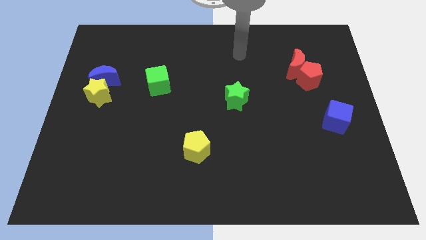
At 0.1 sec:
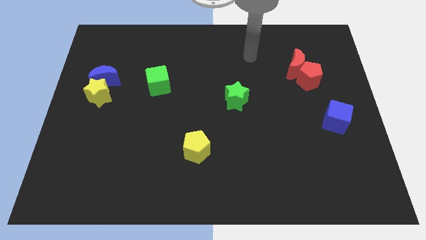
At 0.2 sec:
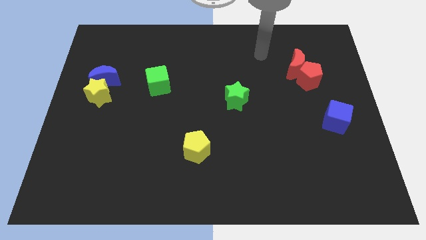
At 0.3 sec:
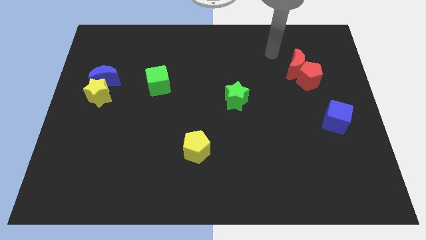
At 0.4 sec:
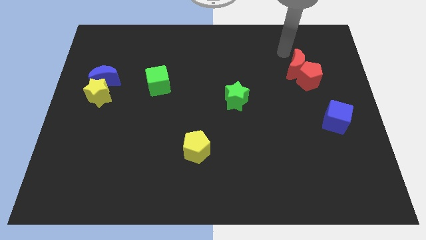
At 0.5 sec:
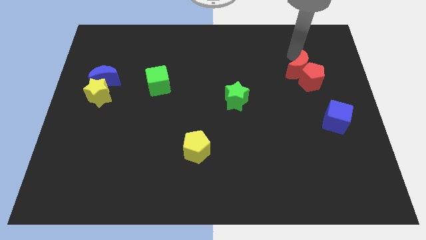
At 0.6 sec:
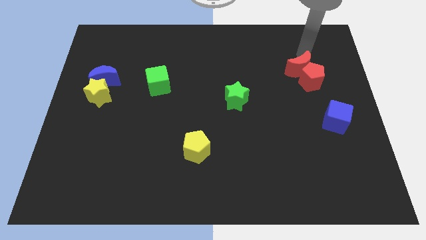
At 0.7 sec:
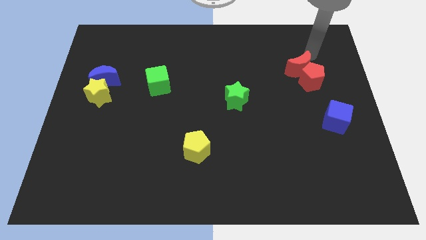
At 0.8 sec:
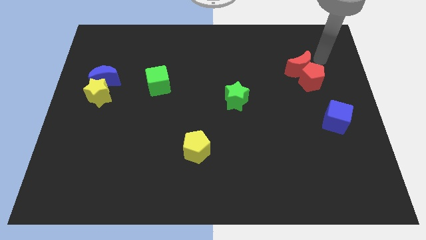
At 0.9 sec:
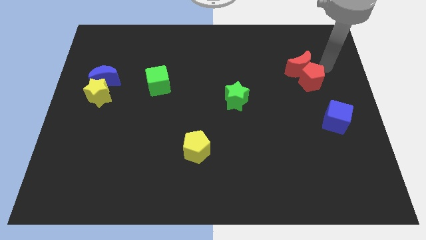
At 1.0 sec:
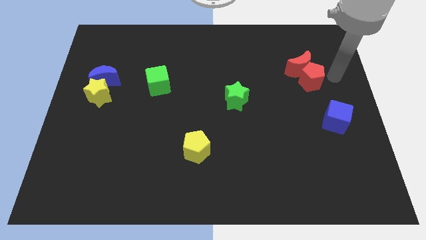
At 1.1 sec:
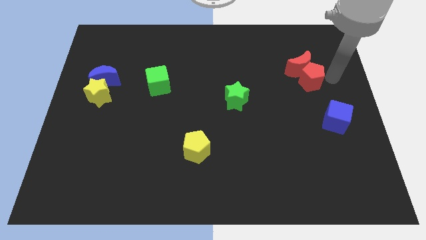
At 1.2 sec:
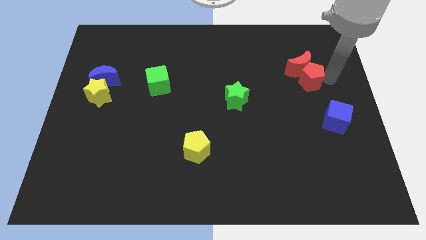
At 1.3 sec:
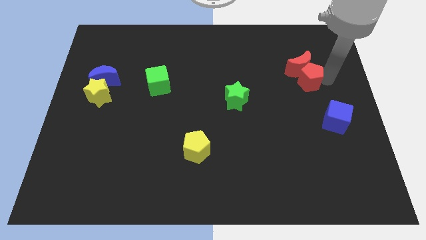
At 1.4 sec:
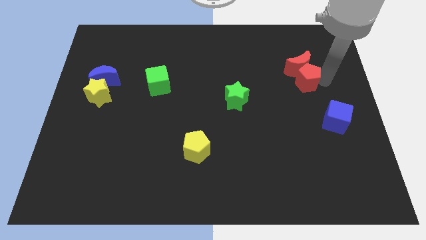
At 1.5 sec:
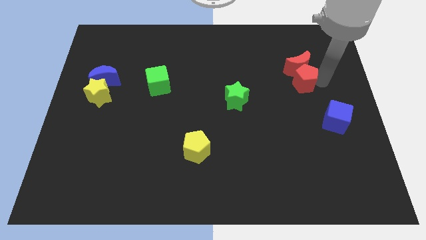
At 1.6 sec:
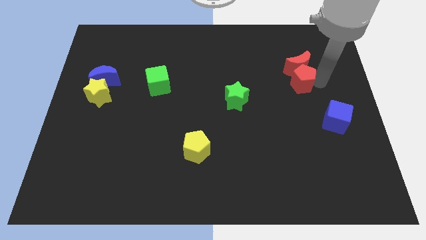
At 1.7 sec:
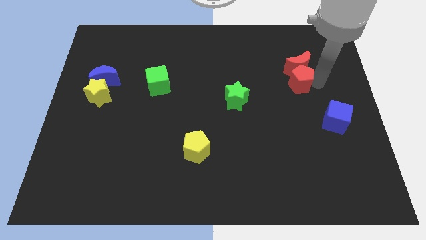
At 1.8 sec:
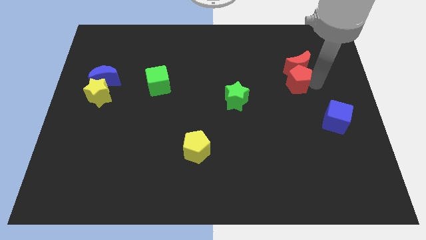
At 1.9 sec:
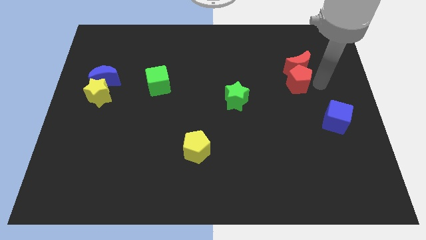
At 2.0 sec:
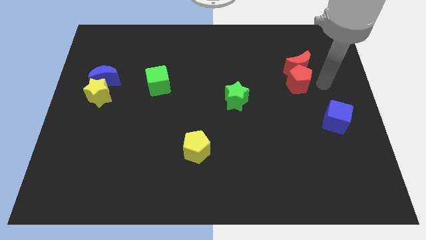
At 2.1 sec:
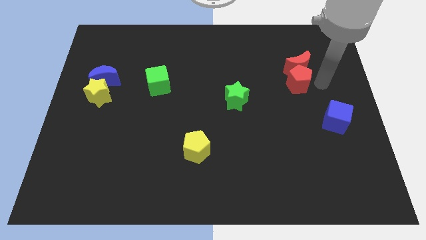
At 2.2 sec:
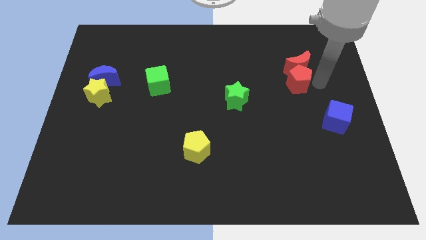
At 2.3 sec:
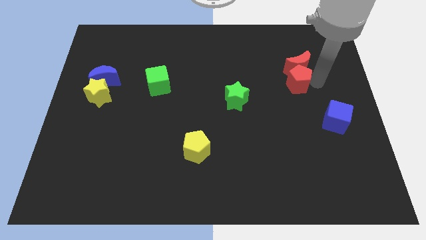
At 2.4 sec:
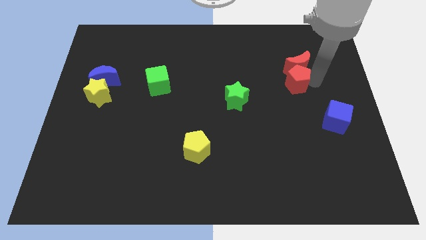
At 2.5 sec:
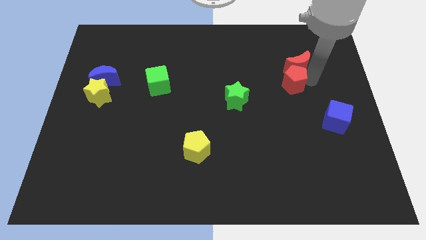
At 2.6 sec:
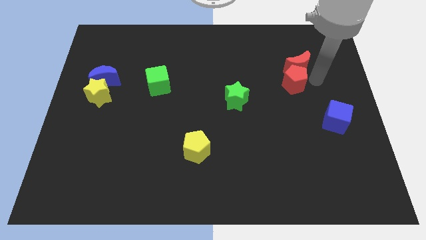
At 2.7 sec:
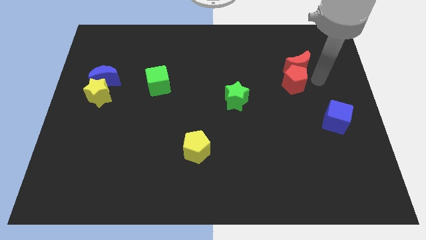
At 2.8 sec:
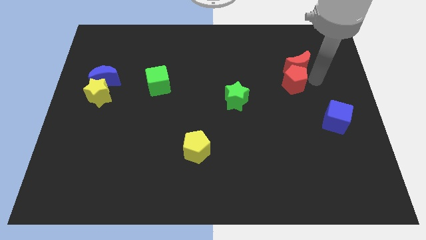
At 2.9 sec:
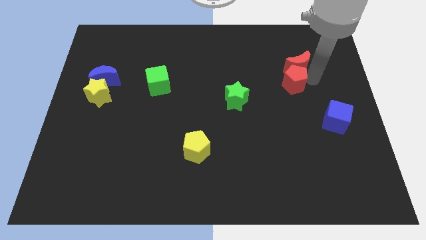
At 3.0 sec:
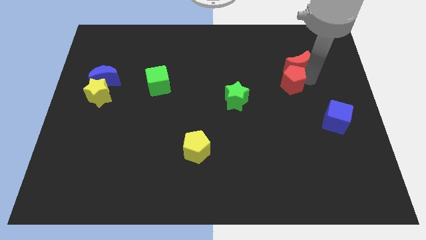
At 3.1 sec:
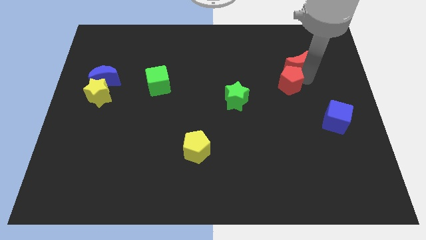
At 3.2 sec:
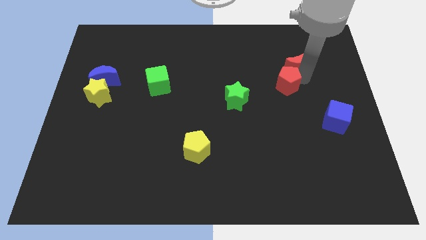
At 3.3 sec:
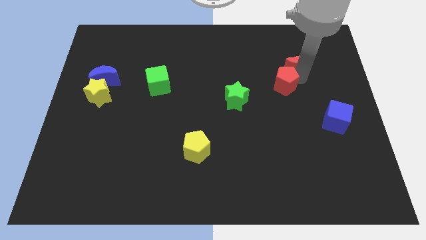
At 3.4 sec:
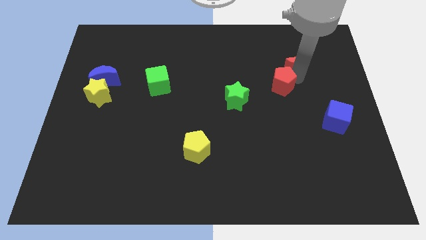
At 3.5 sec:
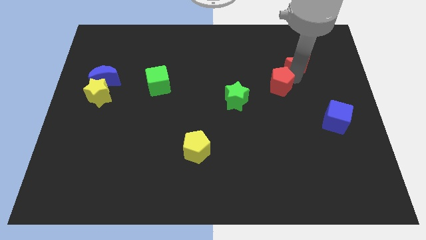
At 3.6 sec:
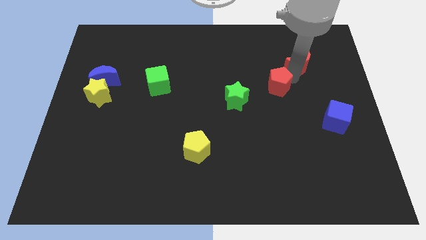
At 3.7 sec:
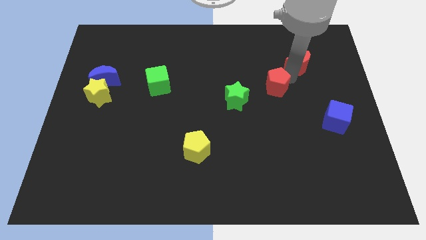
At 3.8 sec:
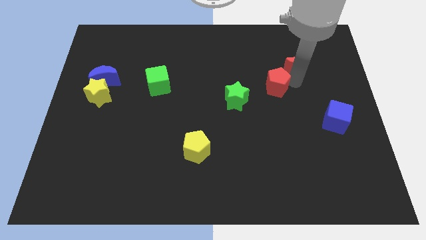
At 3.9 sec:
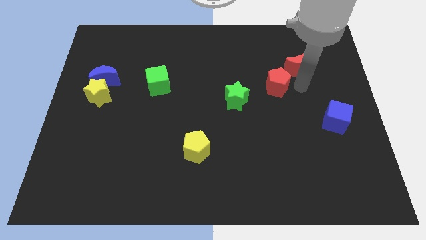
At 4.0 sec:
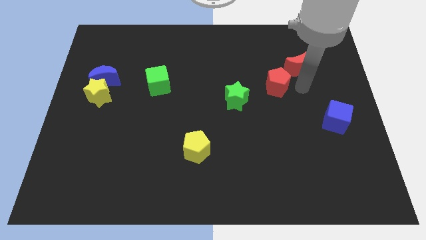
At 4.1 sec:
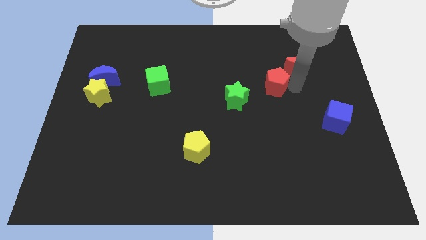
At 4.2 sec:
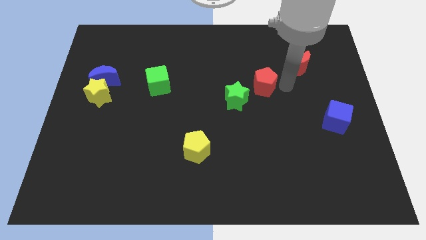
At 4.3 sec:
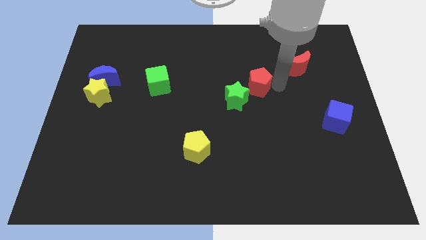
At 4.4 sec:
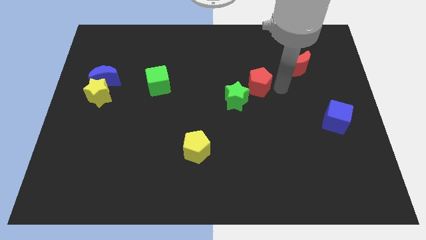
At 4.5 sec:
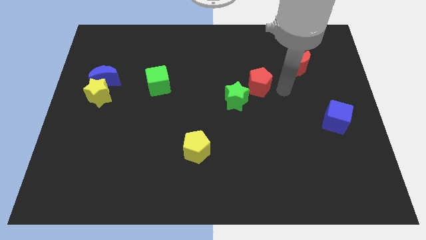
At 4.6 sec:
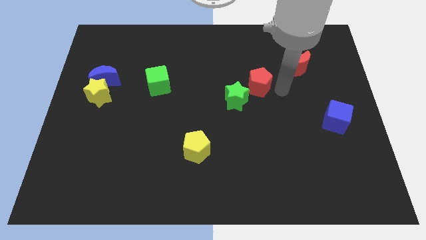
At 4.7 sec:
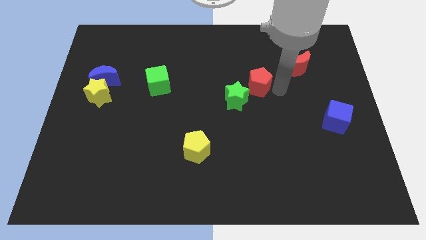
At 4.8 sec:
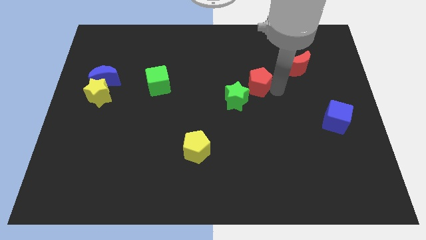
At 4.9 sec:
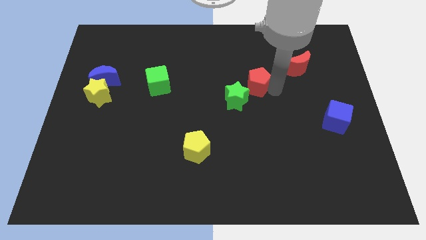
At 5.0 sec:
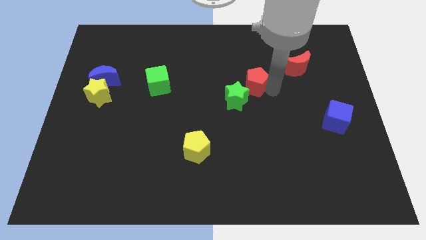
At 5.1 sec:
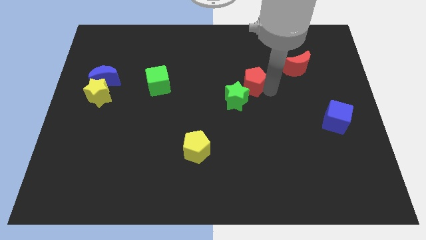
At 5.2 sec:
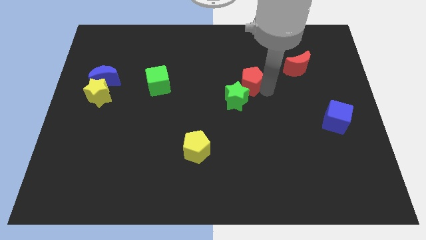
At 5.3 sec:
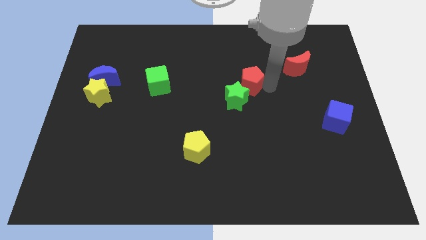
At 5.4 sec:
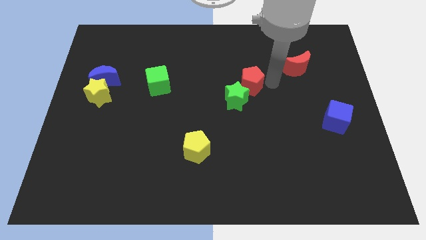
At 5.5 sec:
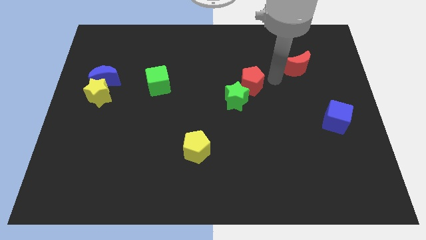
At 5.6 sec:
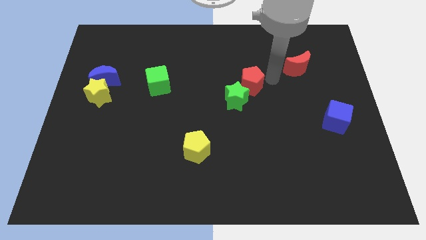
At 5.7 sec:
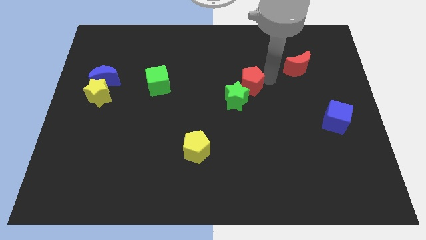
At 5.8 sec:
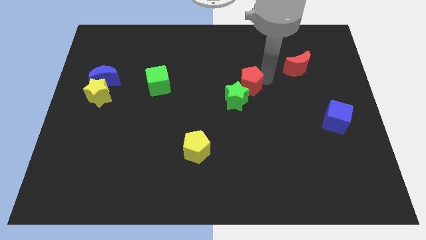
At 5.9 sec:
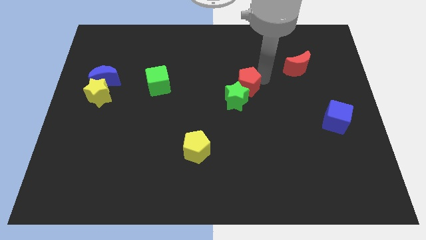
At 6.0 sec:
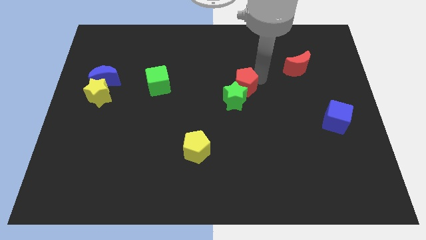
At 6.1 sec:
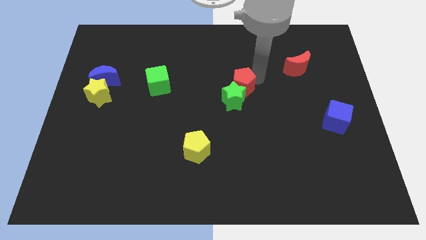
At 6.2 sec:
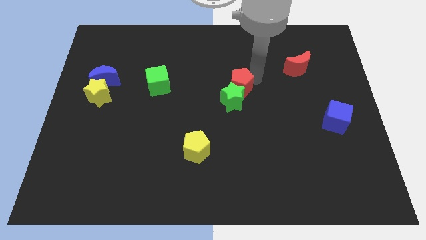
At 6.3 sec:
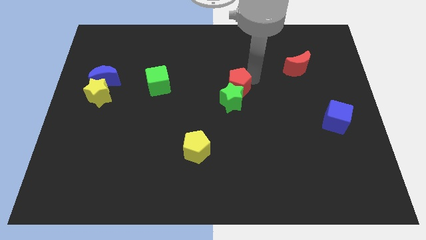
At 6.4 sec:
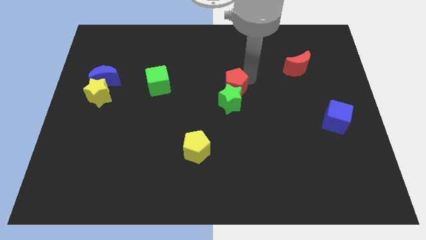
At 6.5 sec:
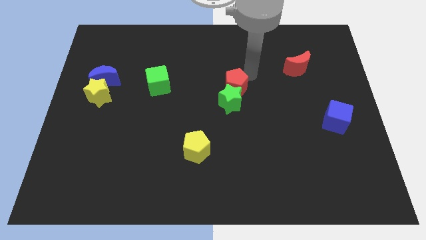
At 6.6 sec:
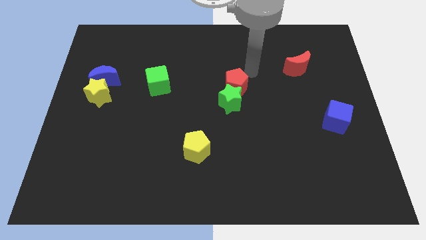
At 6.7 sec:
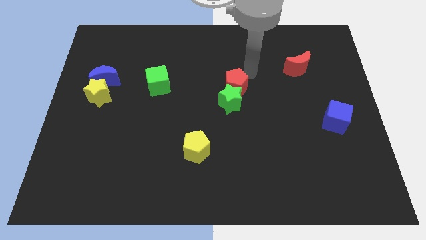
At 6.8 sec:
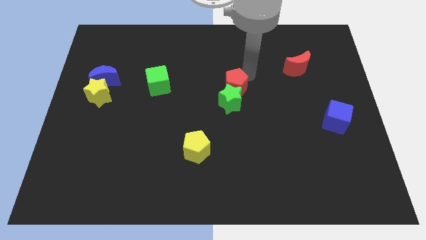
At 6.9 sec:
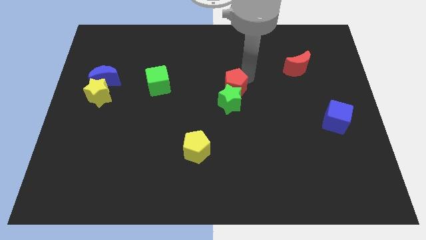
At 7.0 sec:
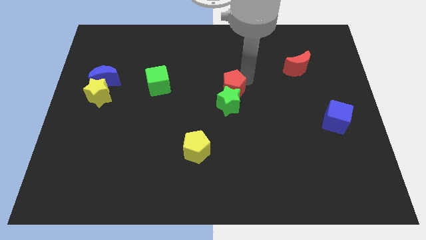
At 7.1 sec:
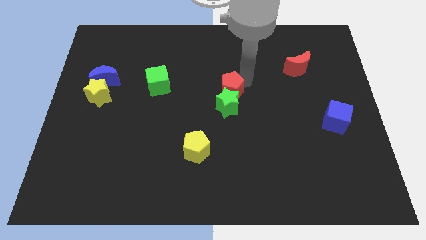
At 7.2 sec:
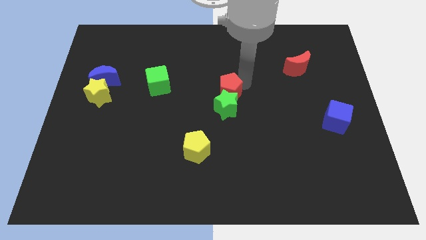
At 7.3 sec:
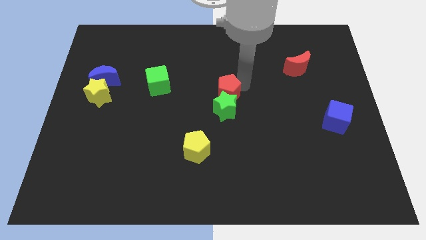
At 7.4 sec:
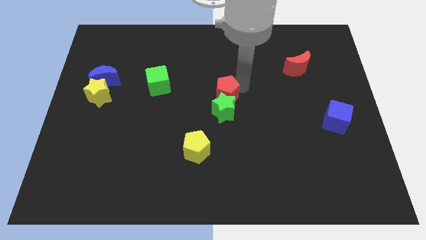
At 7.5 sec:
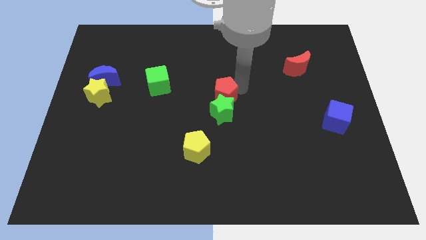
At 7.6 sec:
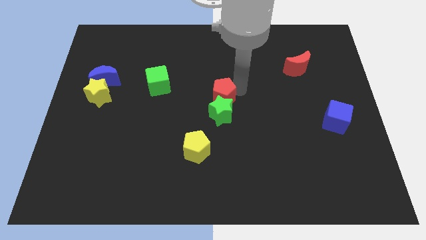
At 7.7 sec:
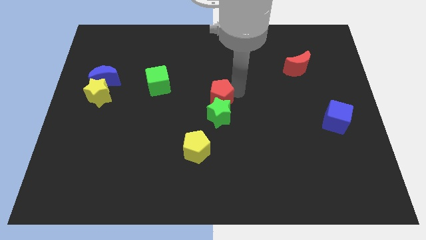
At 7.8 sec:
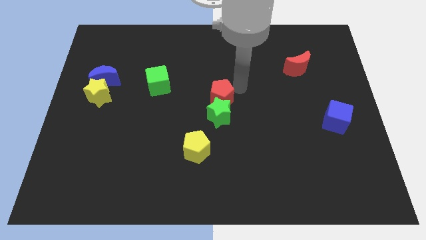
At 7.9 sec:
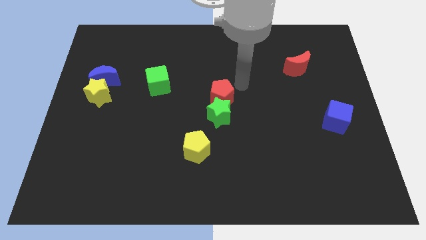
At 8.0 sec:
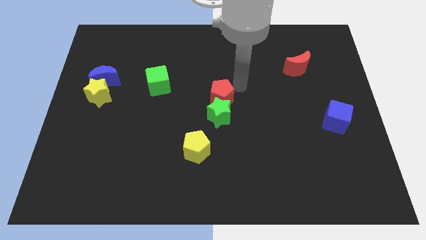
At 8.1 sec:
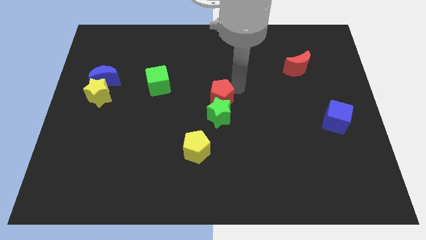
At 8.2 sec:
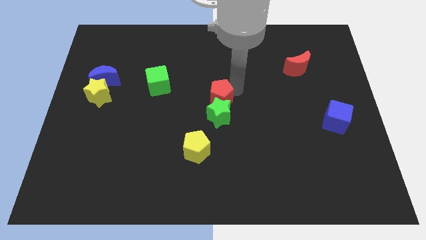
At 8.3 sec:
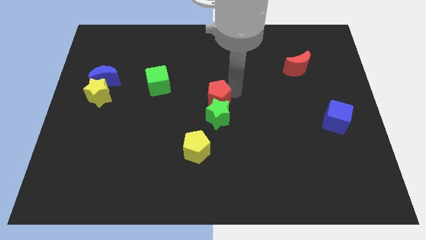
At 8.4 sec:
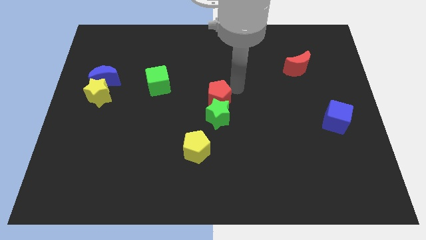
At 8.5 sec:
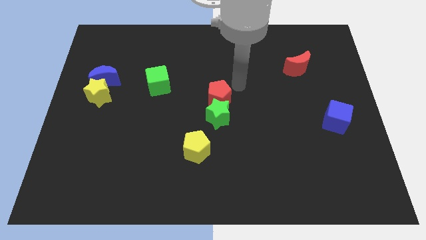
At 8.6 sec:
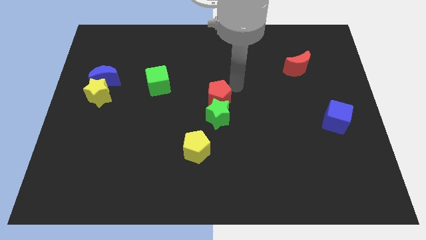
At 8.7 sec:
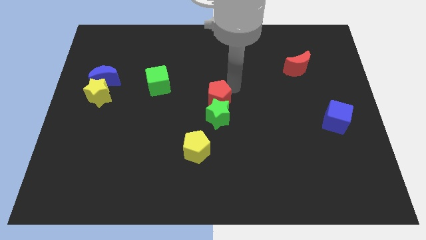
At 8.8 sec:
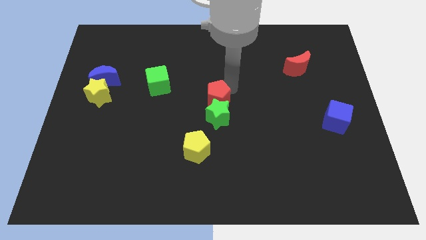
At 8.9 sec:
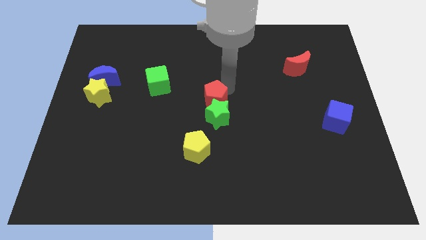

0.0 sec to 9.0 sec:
put the red pentagon to the top side of the yellow pentagon
